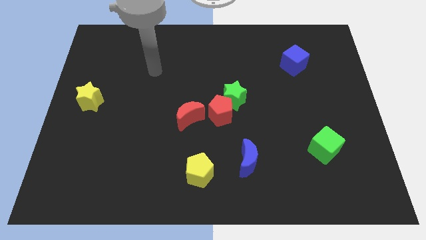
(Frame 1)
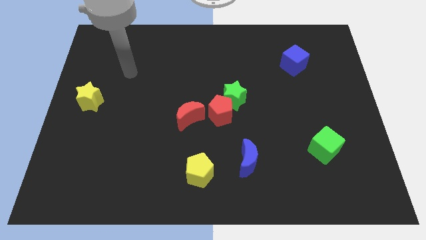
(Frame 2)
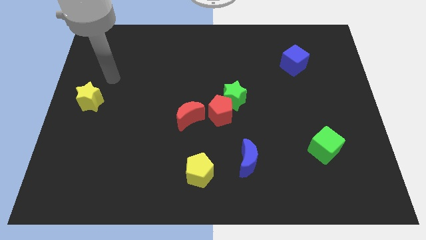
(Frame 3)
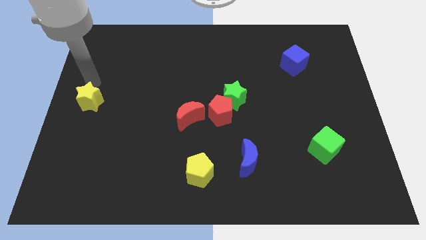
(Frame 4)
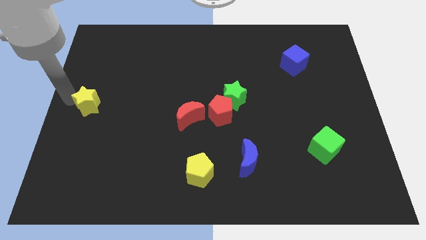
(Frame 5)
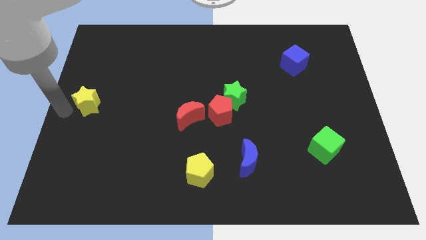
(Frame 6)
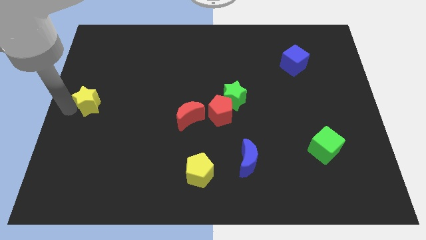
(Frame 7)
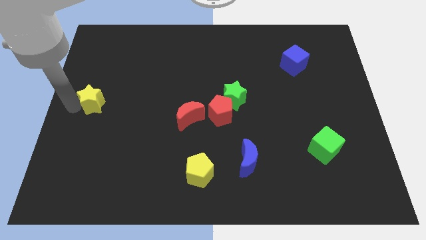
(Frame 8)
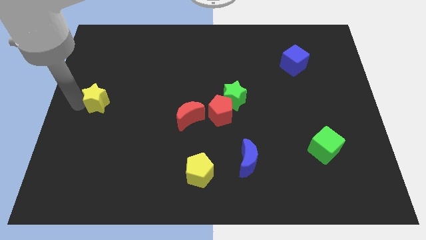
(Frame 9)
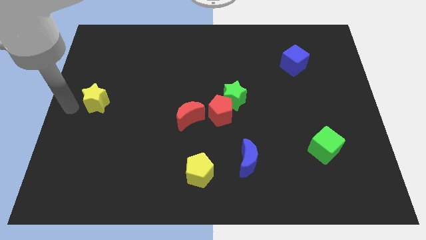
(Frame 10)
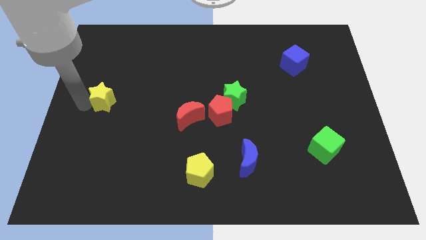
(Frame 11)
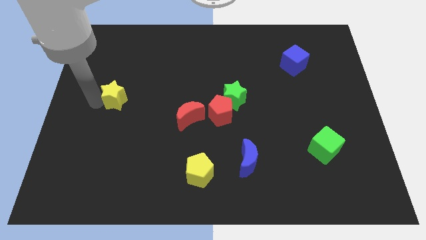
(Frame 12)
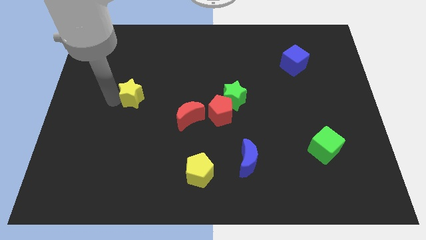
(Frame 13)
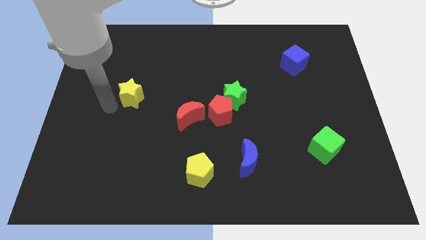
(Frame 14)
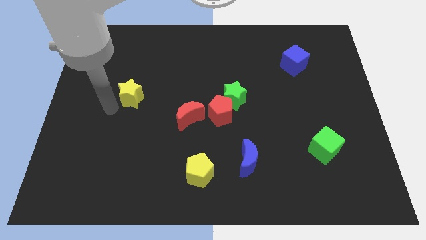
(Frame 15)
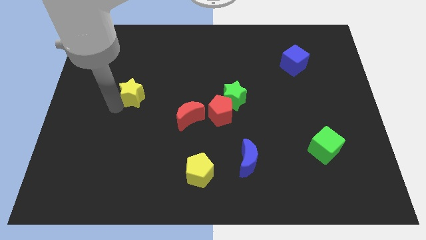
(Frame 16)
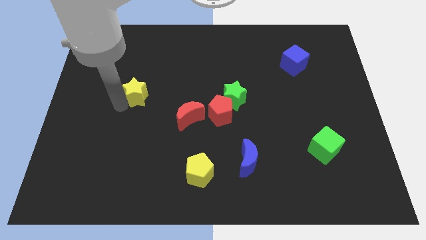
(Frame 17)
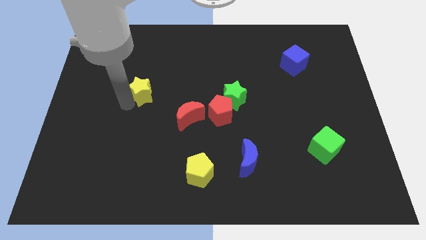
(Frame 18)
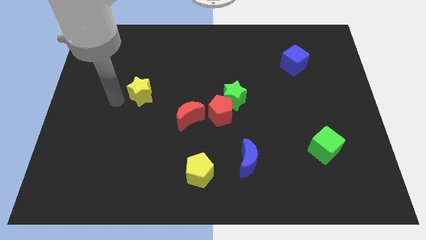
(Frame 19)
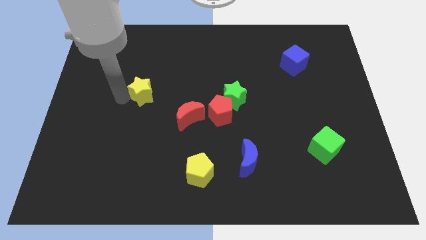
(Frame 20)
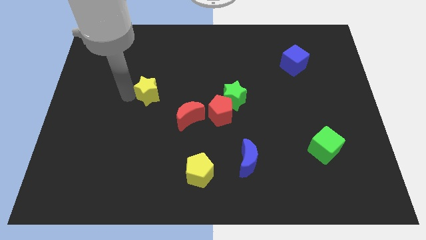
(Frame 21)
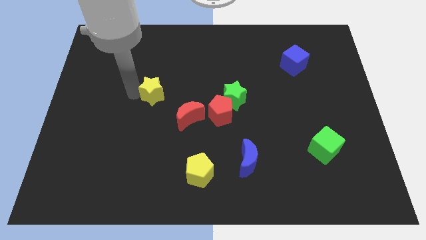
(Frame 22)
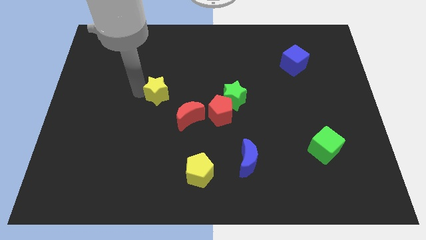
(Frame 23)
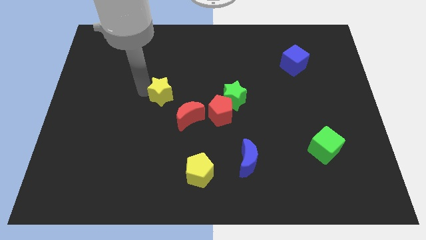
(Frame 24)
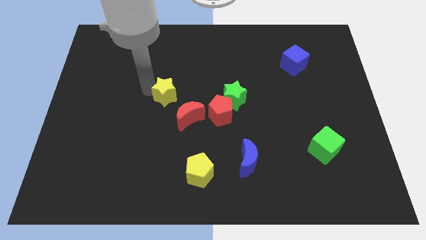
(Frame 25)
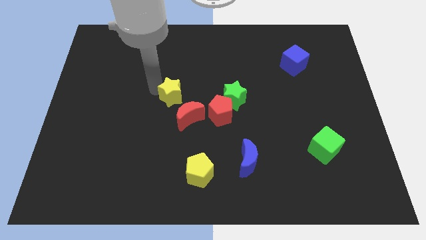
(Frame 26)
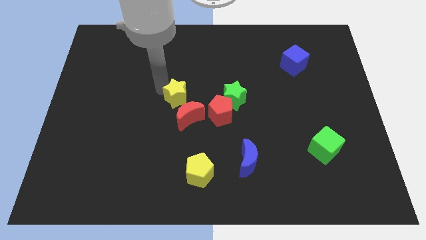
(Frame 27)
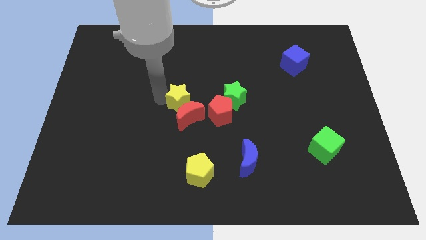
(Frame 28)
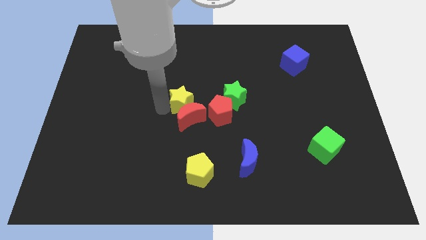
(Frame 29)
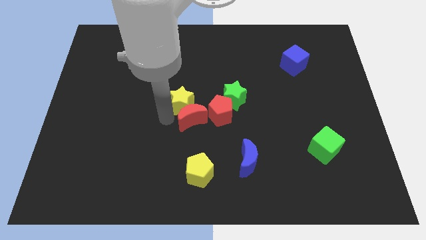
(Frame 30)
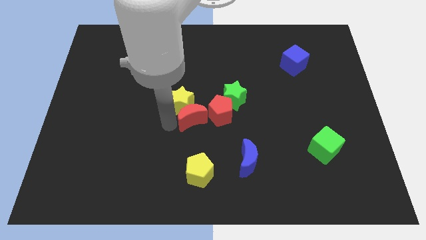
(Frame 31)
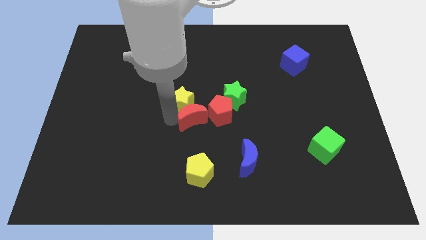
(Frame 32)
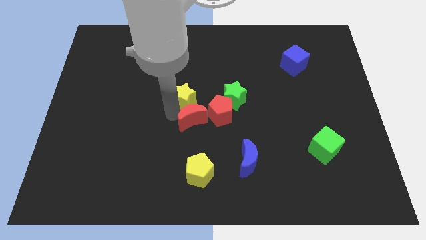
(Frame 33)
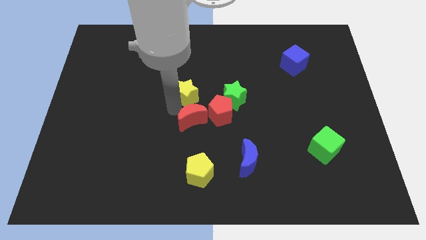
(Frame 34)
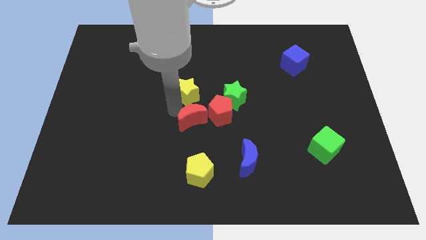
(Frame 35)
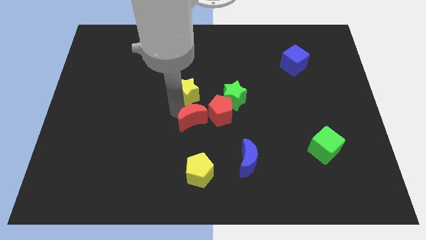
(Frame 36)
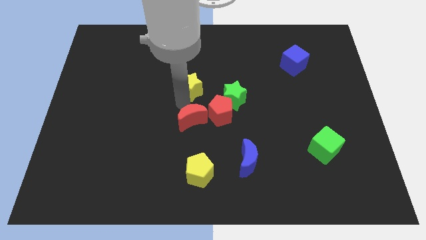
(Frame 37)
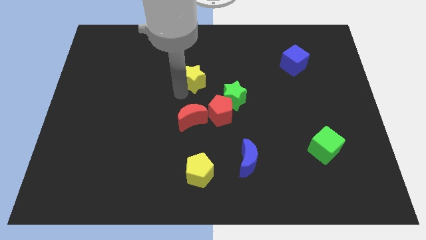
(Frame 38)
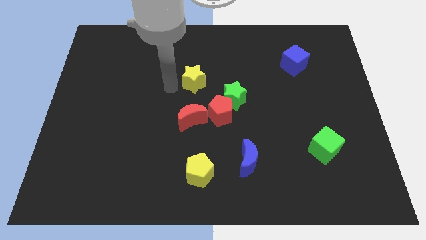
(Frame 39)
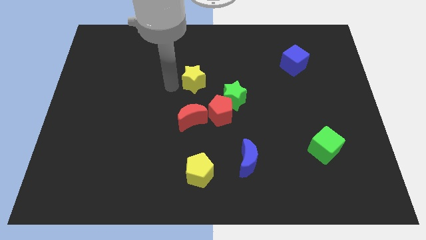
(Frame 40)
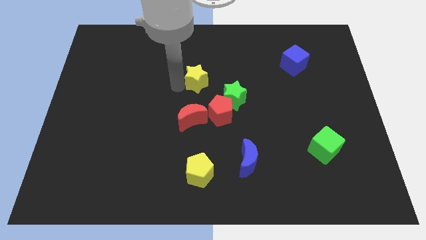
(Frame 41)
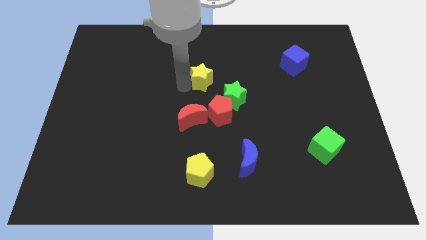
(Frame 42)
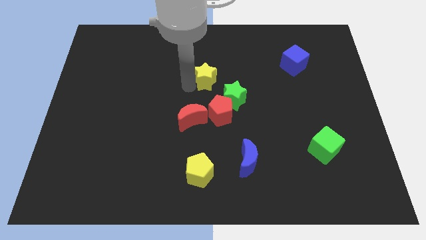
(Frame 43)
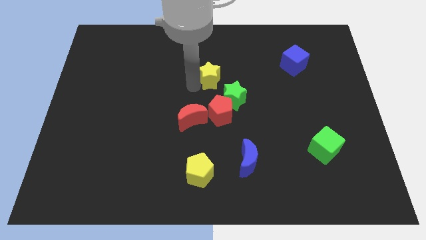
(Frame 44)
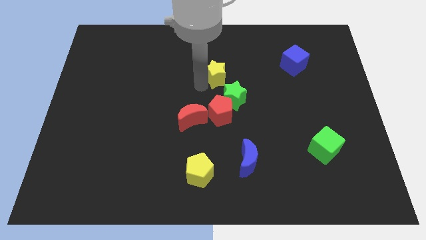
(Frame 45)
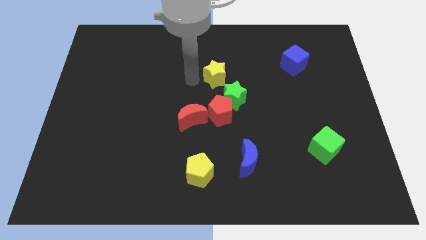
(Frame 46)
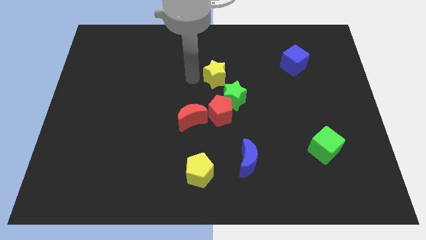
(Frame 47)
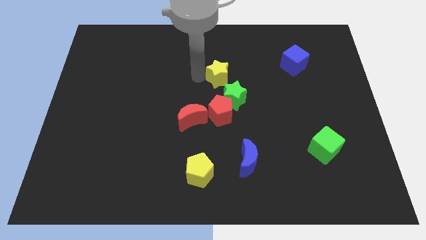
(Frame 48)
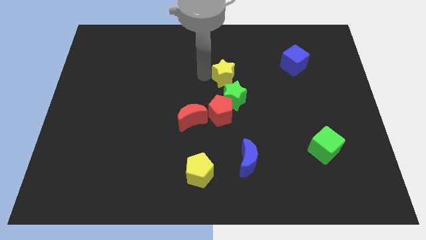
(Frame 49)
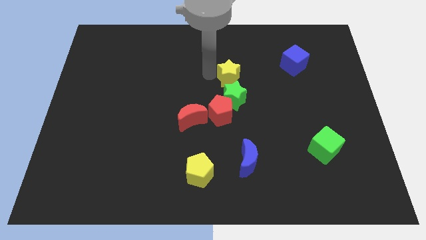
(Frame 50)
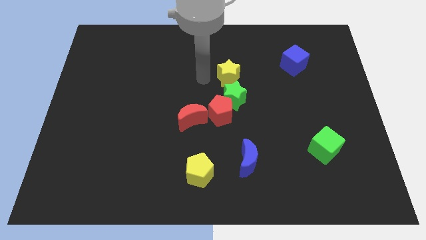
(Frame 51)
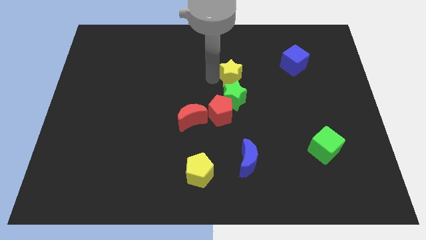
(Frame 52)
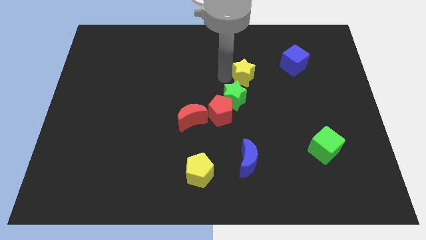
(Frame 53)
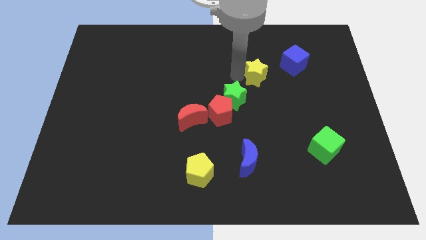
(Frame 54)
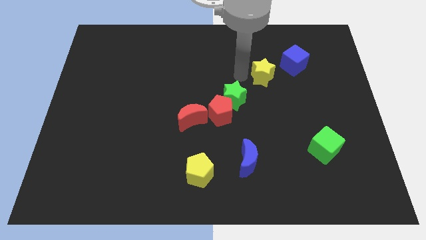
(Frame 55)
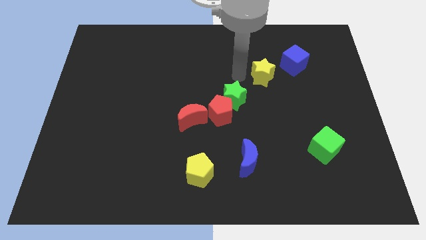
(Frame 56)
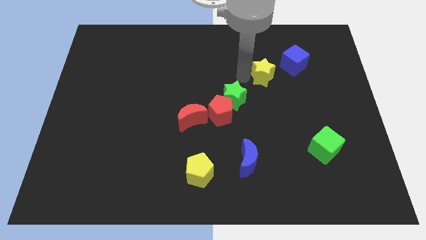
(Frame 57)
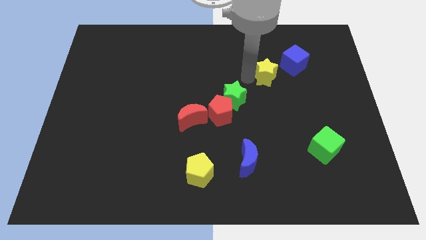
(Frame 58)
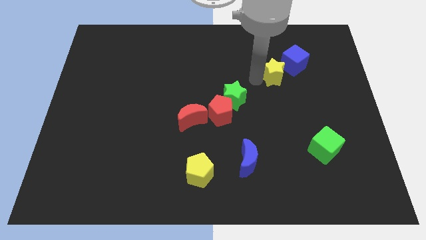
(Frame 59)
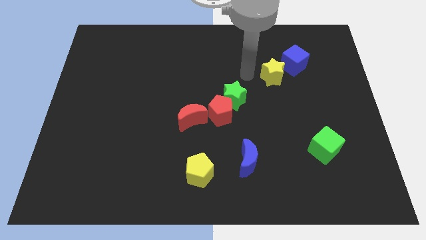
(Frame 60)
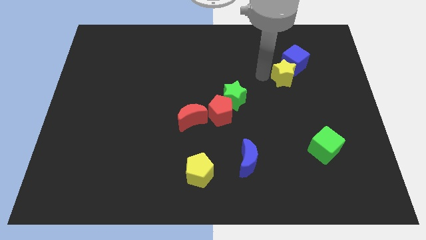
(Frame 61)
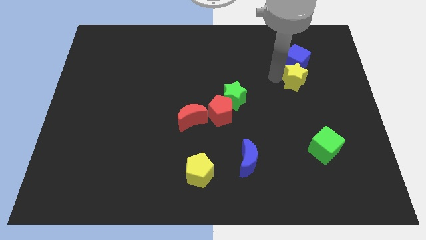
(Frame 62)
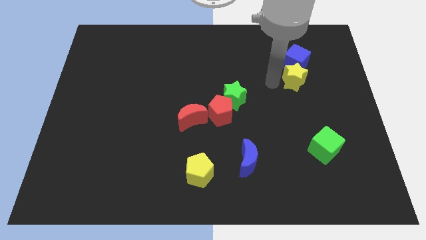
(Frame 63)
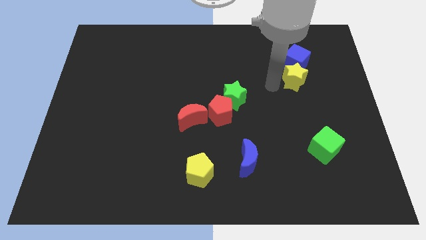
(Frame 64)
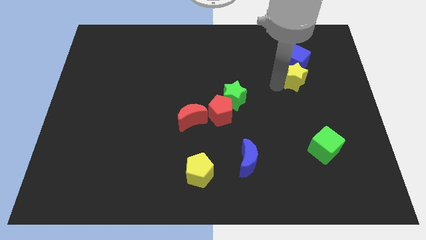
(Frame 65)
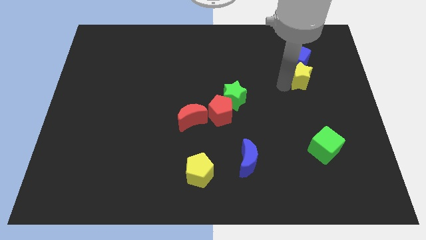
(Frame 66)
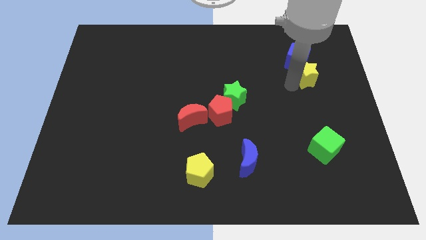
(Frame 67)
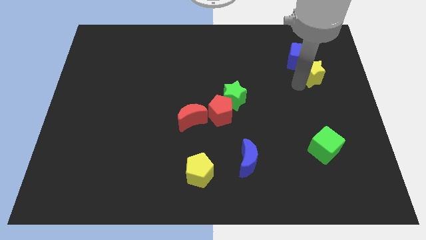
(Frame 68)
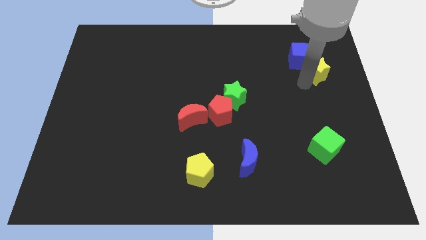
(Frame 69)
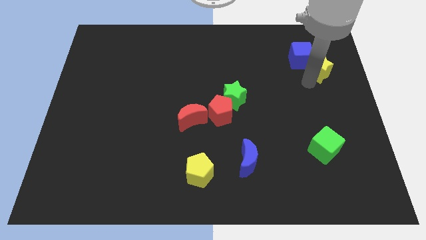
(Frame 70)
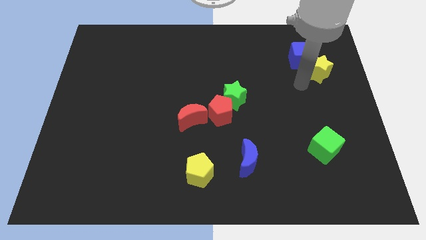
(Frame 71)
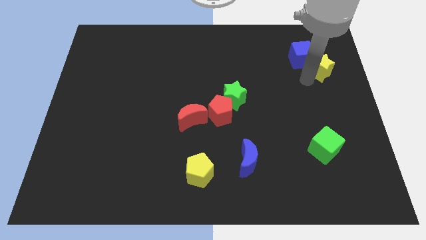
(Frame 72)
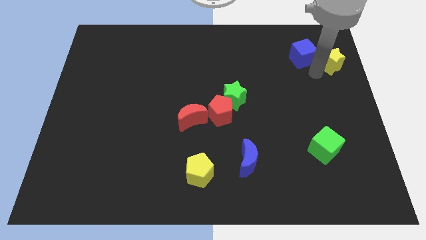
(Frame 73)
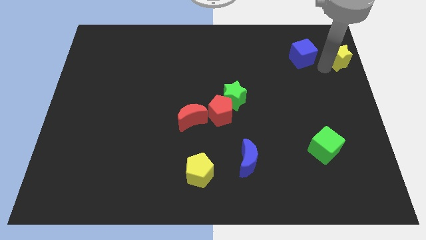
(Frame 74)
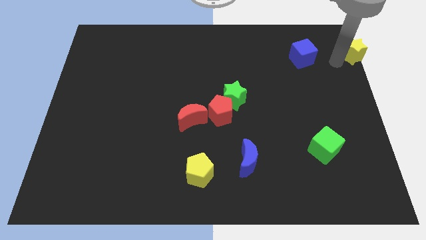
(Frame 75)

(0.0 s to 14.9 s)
slide the yellow star to the top right of the board
